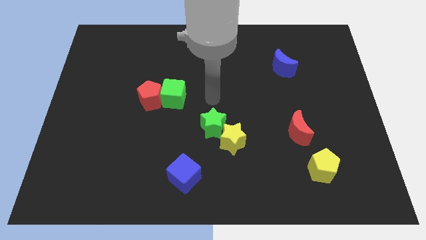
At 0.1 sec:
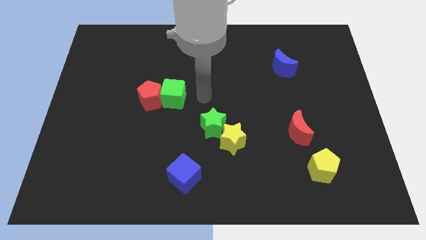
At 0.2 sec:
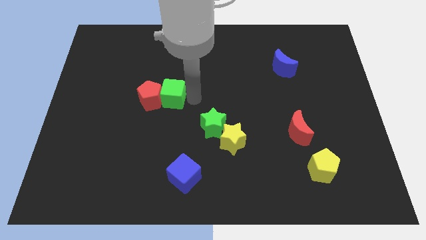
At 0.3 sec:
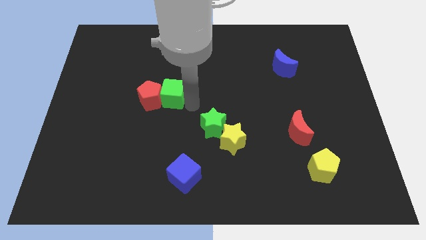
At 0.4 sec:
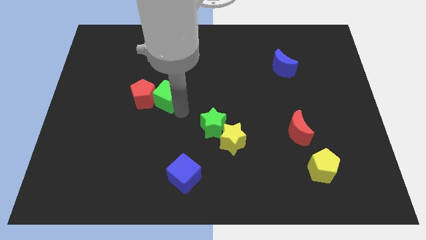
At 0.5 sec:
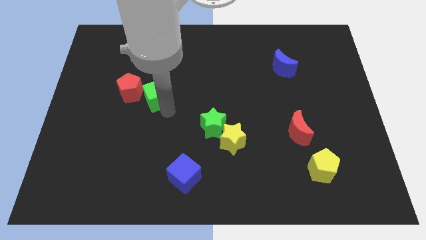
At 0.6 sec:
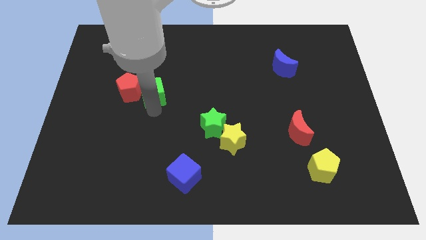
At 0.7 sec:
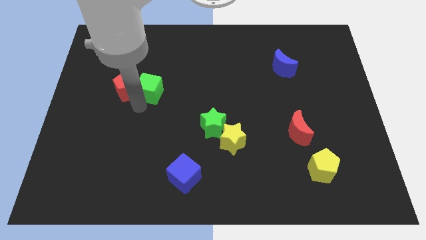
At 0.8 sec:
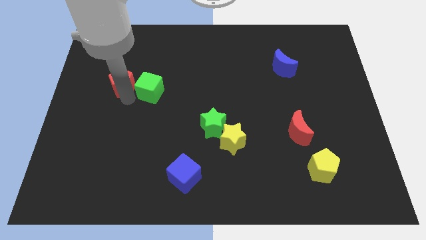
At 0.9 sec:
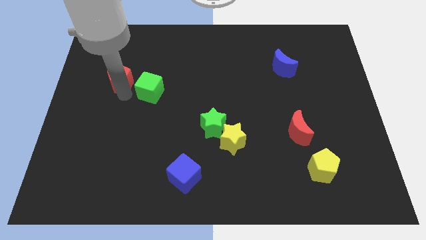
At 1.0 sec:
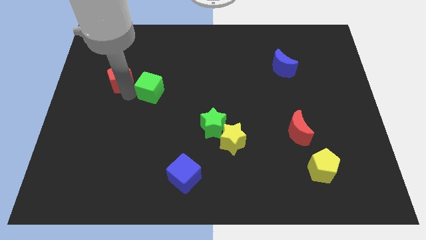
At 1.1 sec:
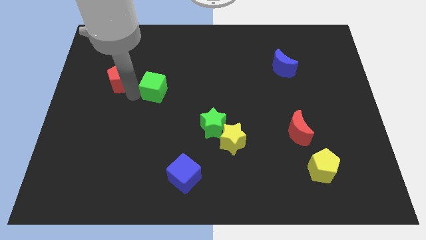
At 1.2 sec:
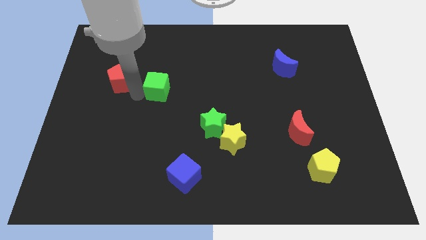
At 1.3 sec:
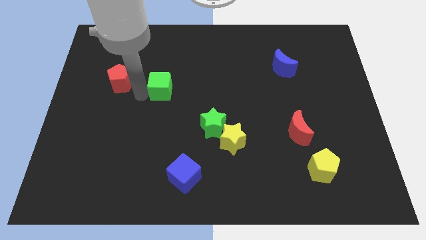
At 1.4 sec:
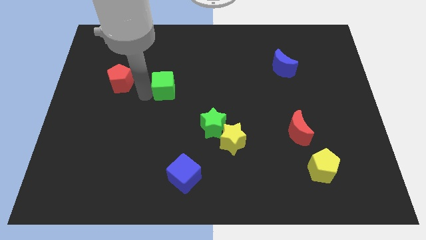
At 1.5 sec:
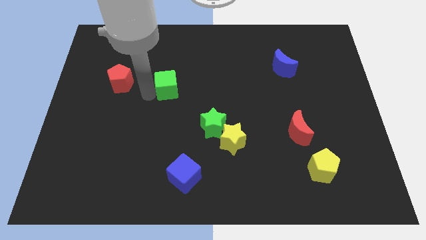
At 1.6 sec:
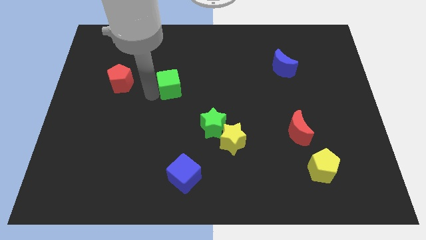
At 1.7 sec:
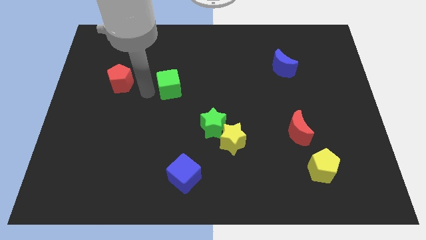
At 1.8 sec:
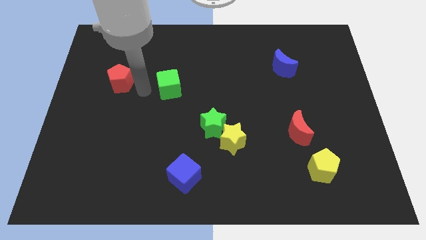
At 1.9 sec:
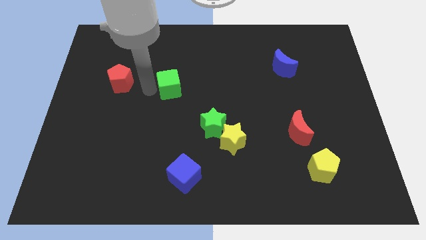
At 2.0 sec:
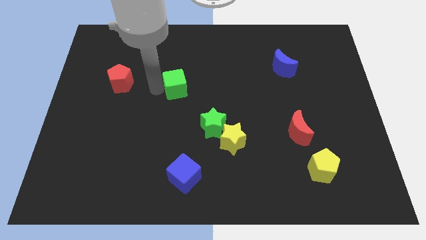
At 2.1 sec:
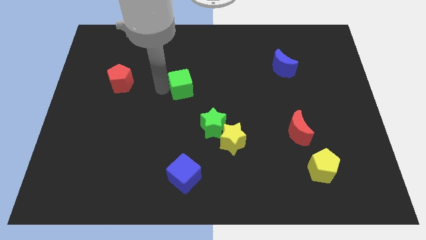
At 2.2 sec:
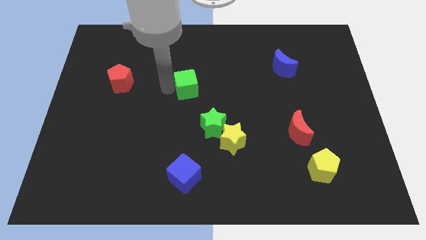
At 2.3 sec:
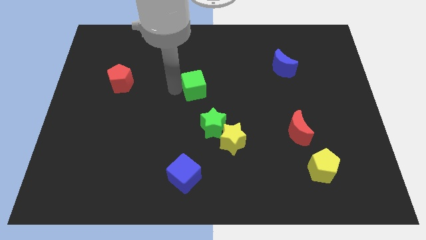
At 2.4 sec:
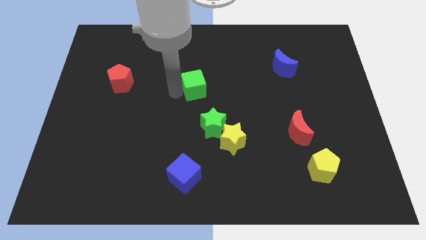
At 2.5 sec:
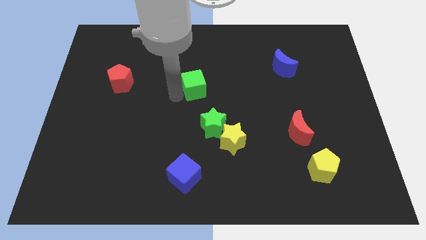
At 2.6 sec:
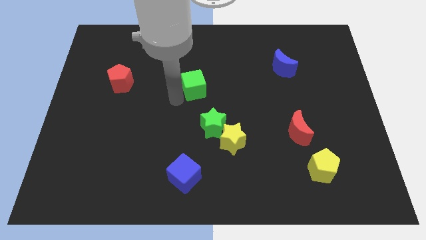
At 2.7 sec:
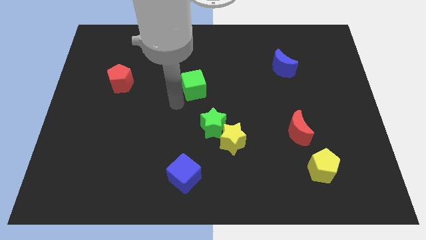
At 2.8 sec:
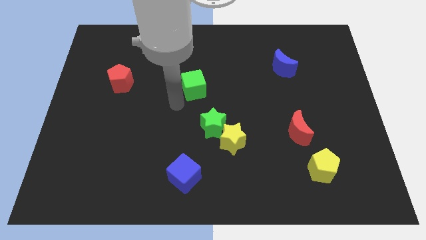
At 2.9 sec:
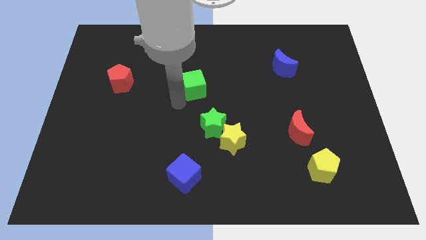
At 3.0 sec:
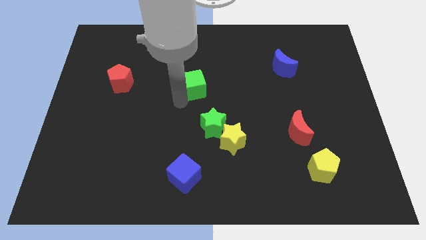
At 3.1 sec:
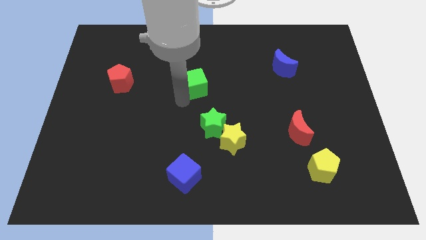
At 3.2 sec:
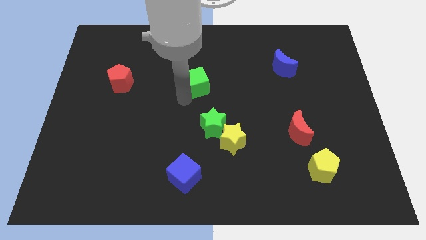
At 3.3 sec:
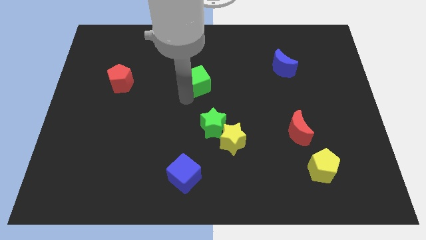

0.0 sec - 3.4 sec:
slide the green cube up and then right slightly

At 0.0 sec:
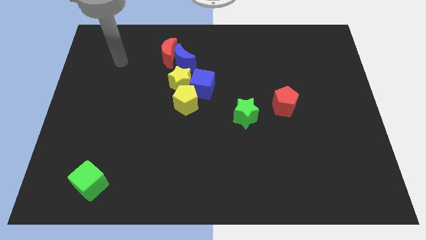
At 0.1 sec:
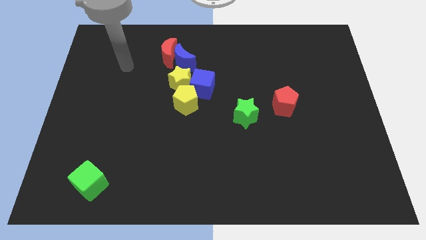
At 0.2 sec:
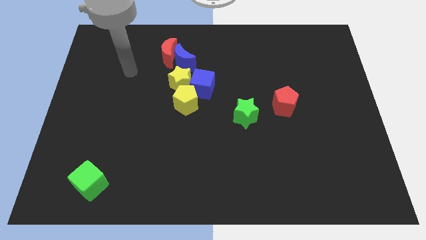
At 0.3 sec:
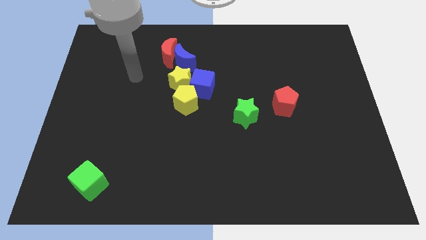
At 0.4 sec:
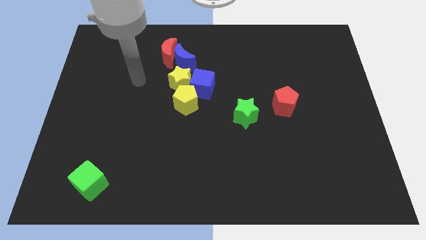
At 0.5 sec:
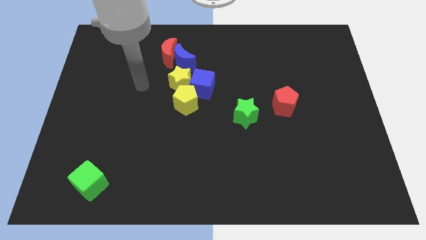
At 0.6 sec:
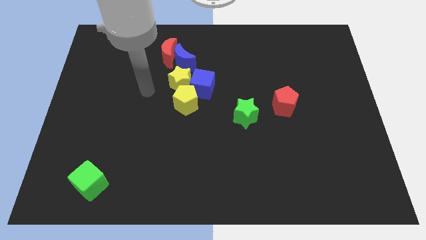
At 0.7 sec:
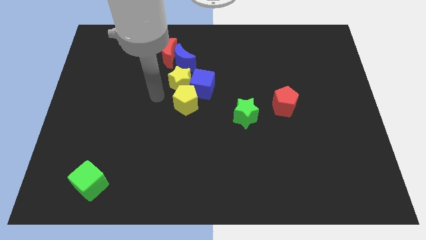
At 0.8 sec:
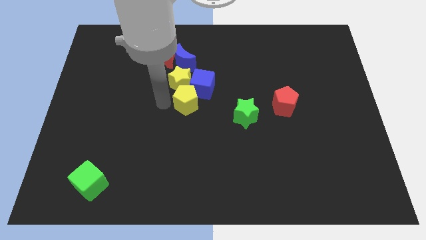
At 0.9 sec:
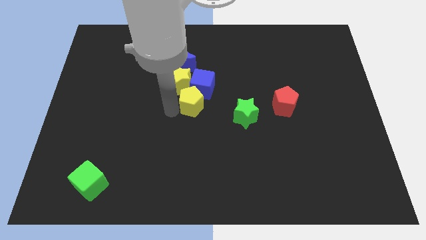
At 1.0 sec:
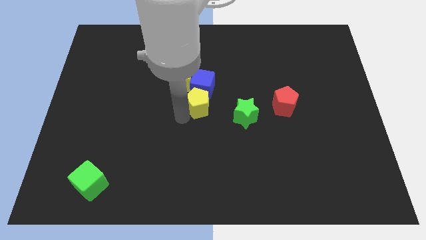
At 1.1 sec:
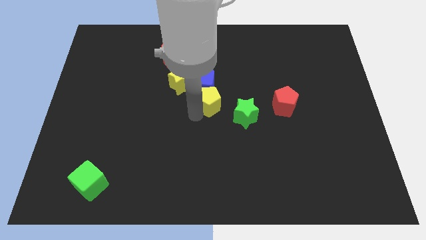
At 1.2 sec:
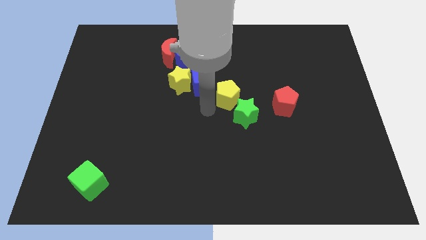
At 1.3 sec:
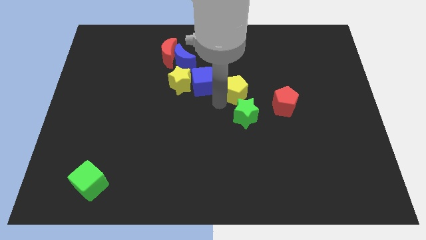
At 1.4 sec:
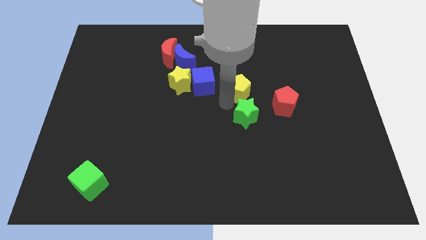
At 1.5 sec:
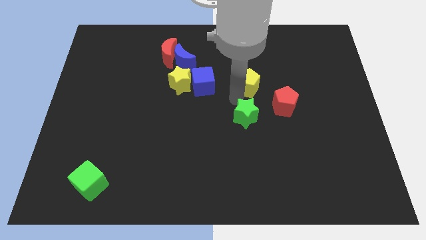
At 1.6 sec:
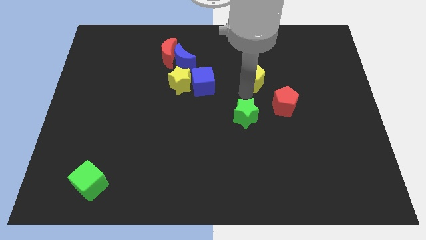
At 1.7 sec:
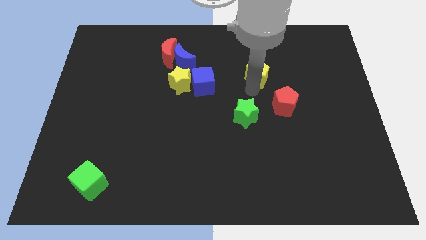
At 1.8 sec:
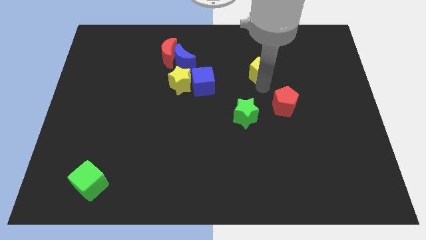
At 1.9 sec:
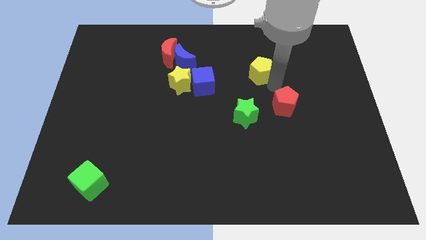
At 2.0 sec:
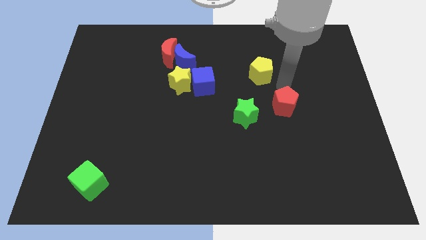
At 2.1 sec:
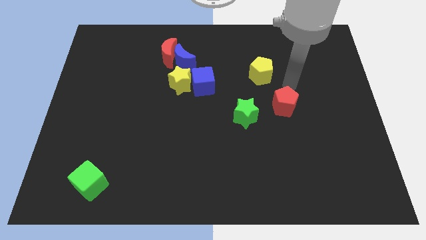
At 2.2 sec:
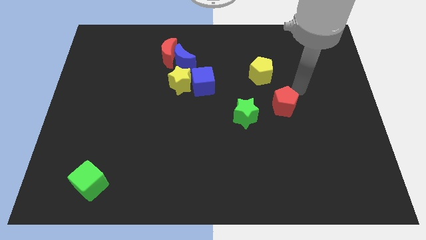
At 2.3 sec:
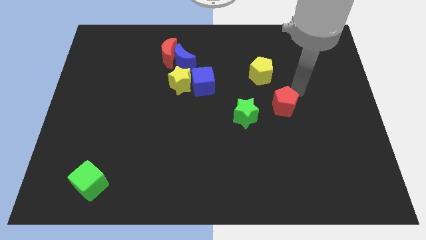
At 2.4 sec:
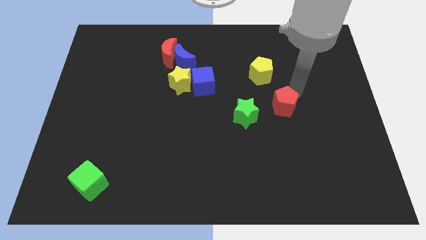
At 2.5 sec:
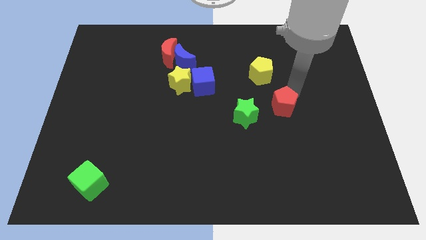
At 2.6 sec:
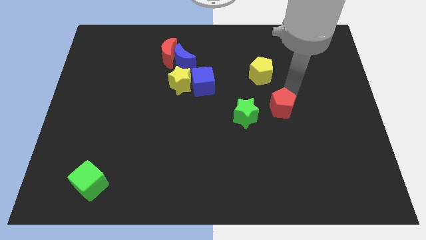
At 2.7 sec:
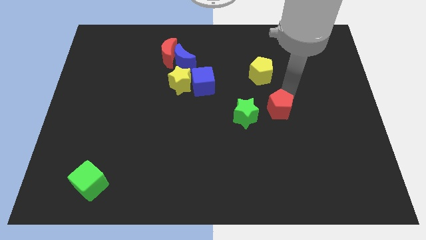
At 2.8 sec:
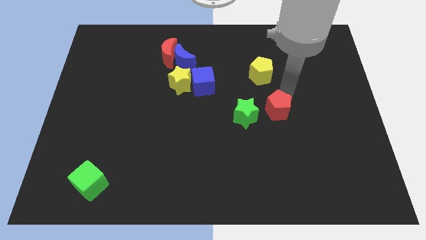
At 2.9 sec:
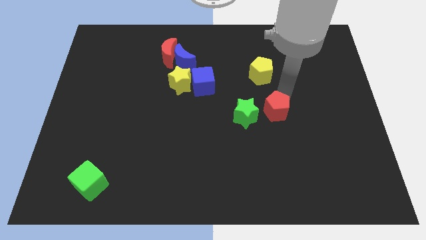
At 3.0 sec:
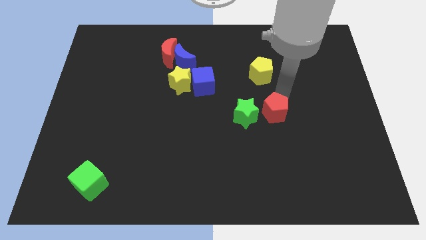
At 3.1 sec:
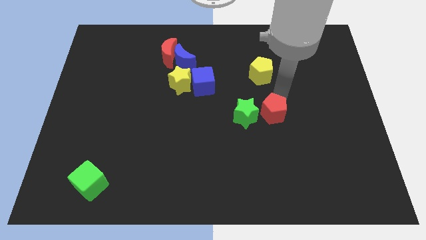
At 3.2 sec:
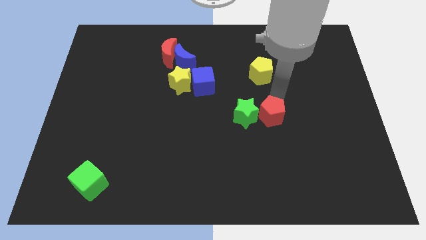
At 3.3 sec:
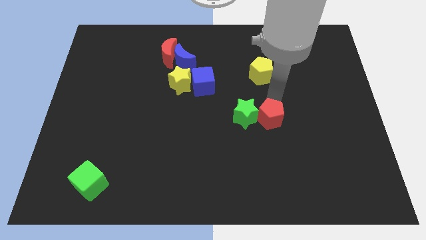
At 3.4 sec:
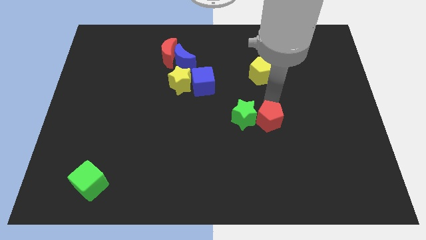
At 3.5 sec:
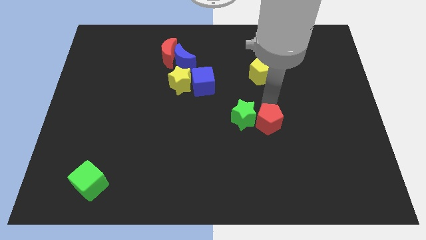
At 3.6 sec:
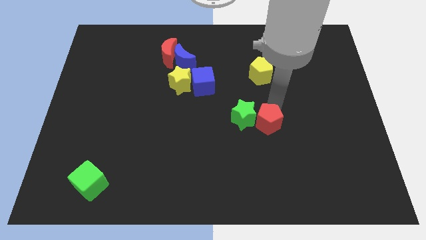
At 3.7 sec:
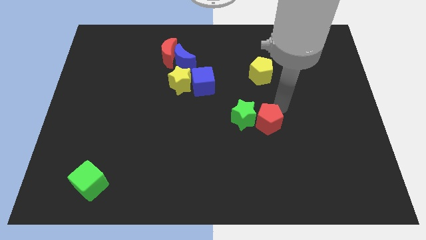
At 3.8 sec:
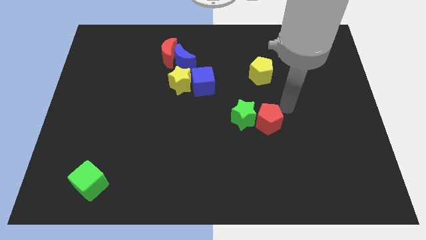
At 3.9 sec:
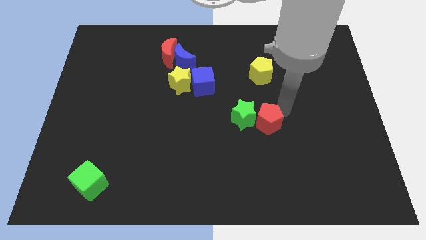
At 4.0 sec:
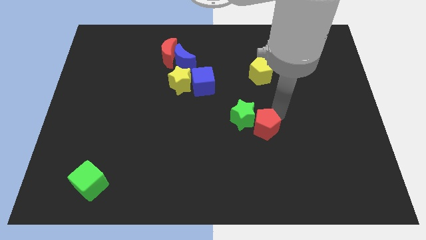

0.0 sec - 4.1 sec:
slightly push the red pentagon down and left diagonally

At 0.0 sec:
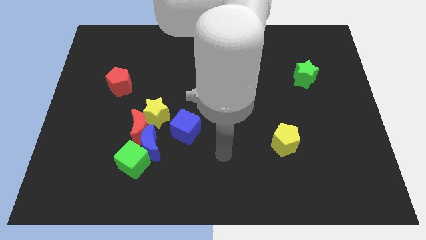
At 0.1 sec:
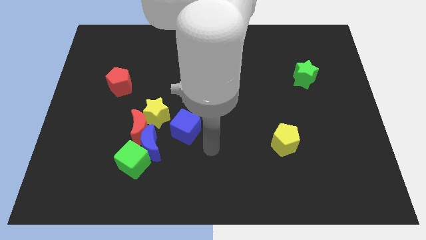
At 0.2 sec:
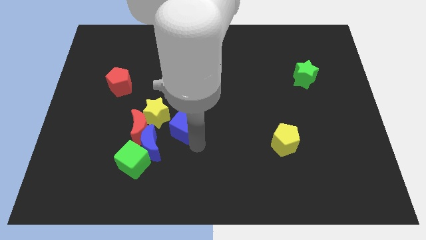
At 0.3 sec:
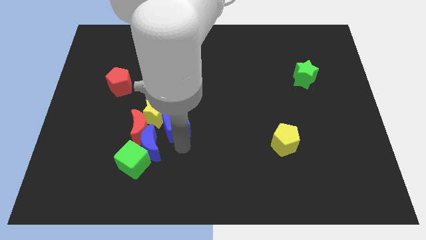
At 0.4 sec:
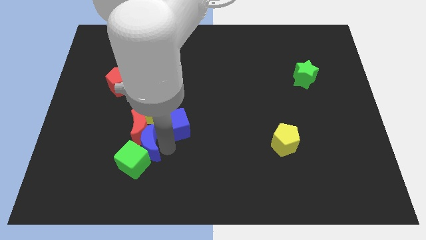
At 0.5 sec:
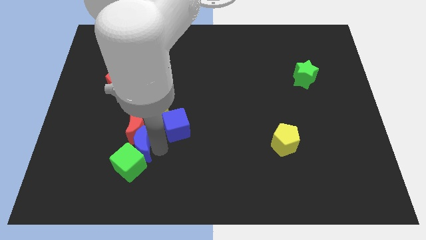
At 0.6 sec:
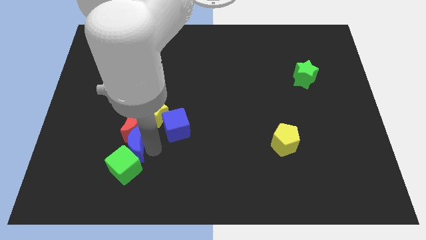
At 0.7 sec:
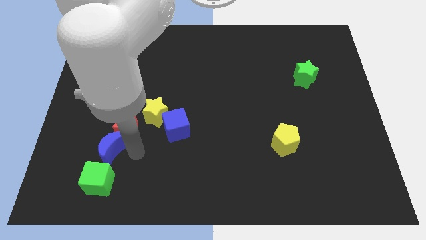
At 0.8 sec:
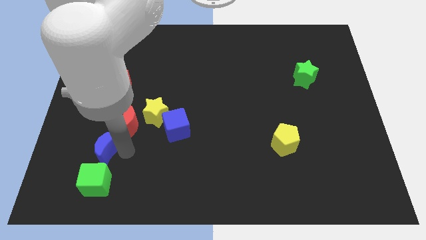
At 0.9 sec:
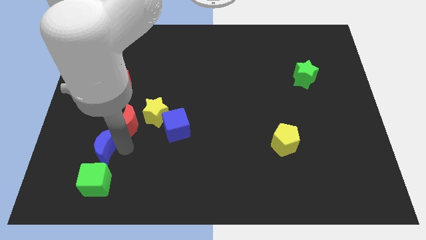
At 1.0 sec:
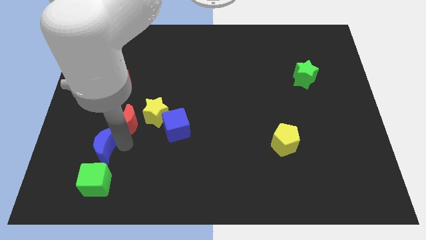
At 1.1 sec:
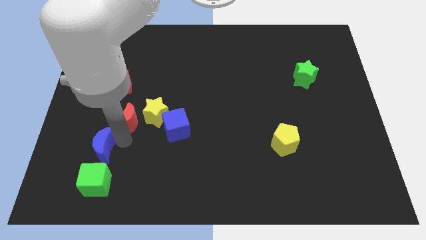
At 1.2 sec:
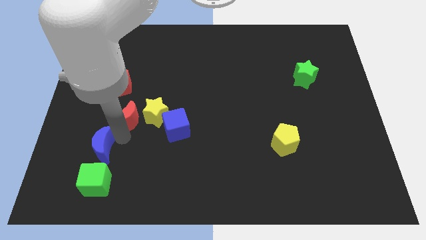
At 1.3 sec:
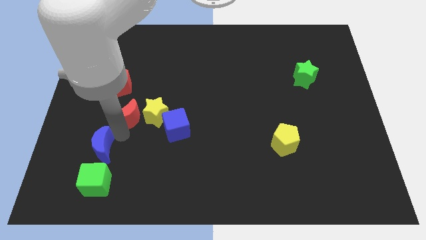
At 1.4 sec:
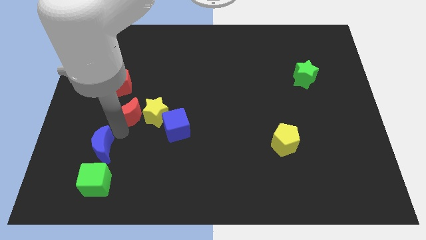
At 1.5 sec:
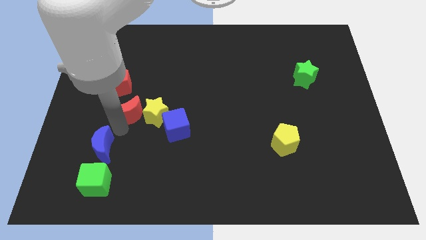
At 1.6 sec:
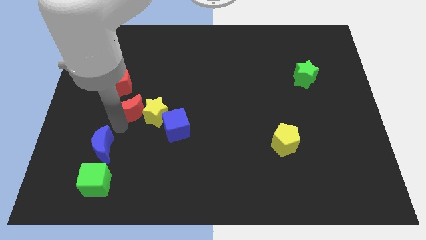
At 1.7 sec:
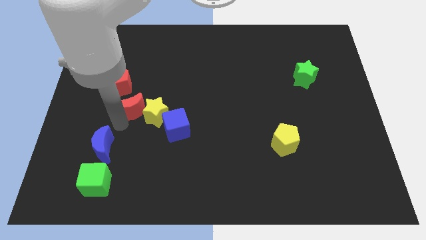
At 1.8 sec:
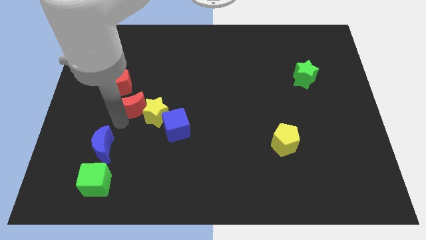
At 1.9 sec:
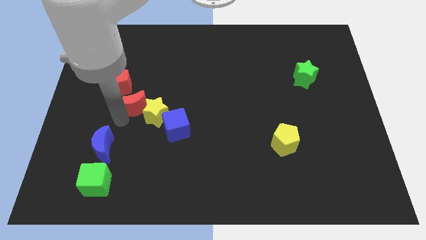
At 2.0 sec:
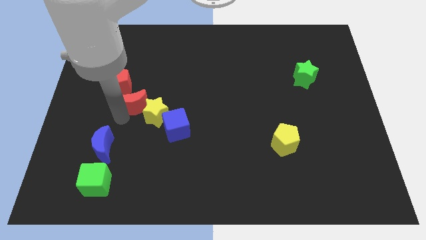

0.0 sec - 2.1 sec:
slide the red moon up a bit
